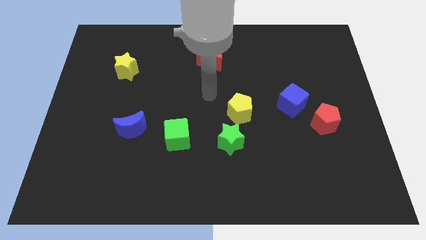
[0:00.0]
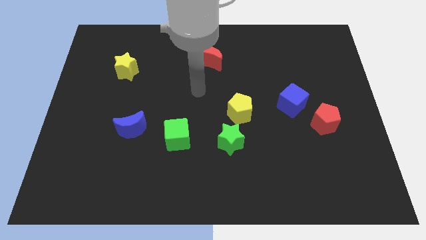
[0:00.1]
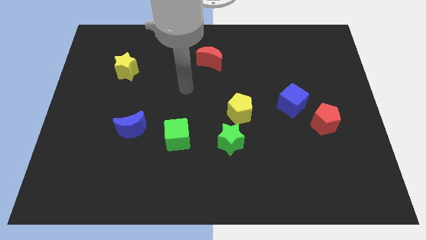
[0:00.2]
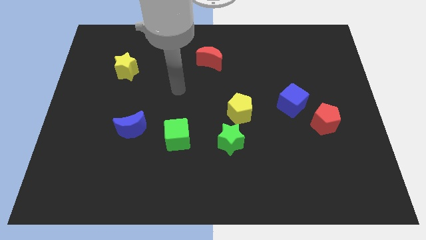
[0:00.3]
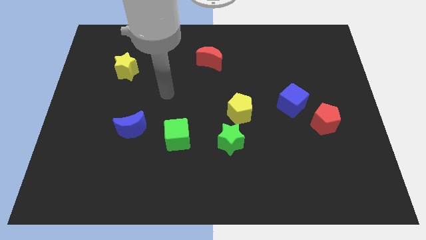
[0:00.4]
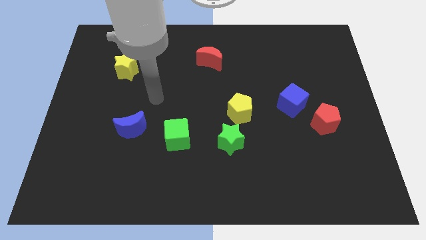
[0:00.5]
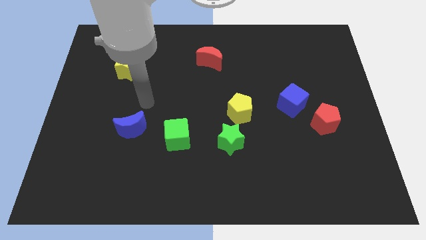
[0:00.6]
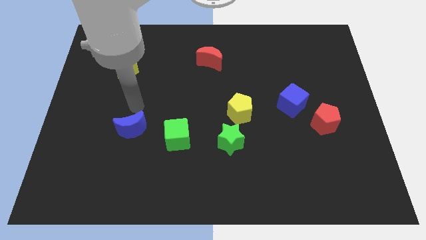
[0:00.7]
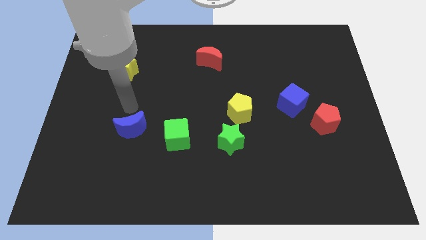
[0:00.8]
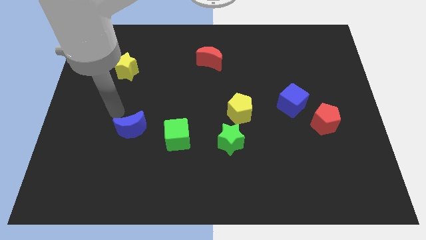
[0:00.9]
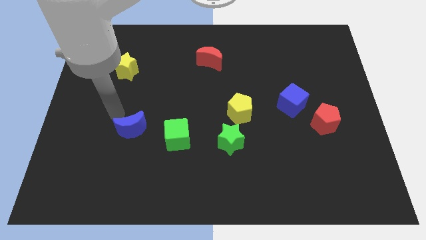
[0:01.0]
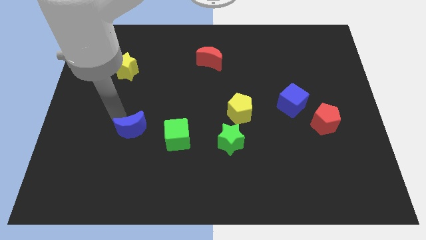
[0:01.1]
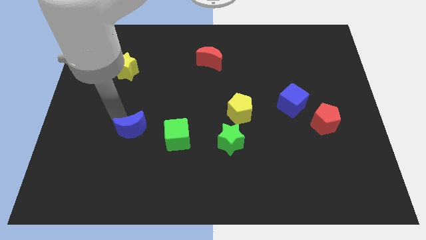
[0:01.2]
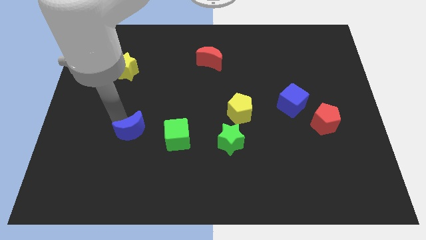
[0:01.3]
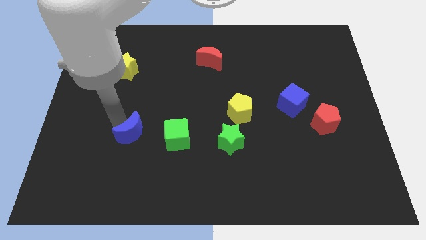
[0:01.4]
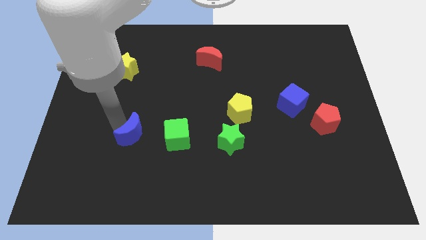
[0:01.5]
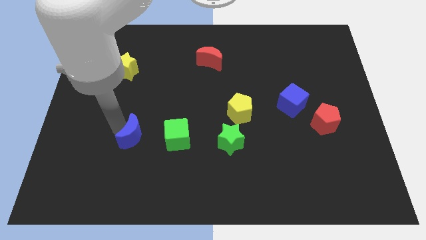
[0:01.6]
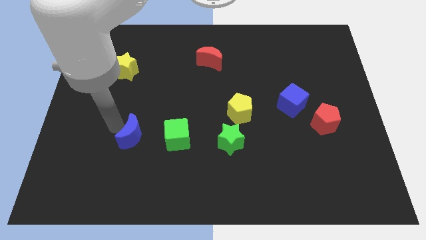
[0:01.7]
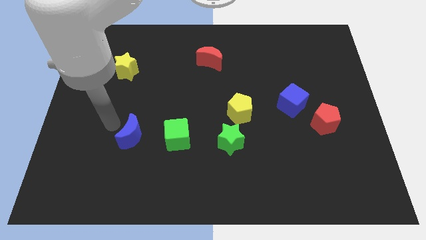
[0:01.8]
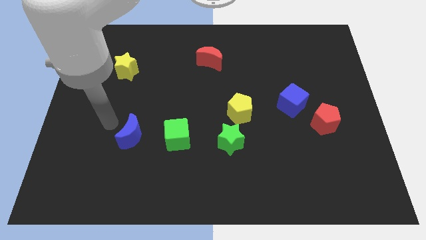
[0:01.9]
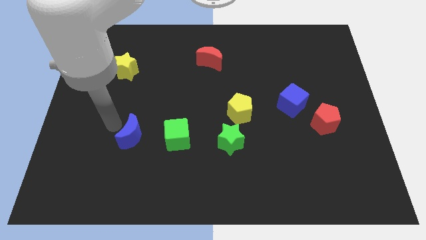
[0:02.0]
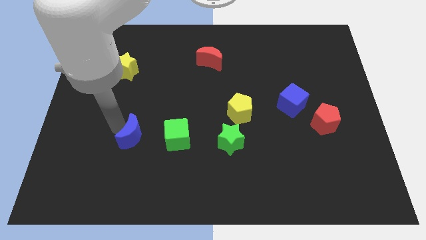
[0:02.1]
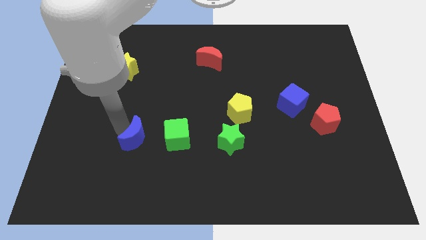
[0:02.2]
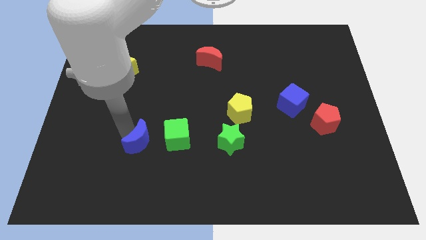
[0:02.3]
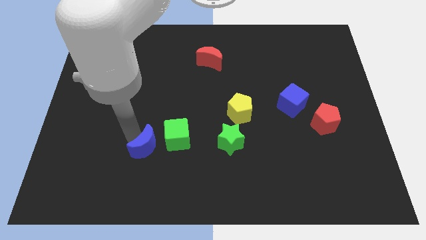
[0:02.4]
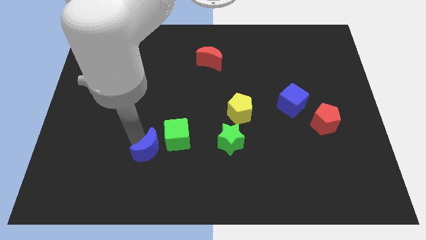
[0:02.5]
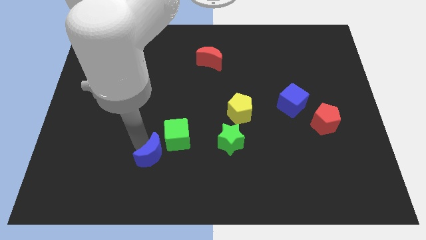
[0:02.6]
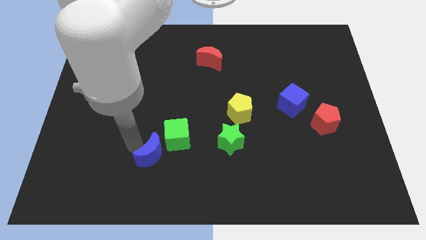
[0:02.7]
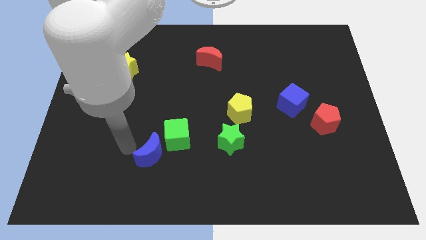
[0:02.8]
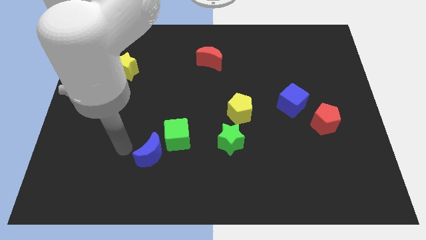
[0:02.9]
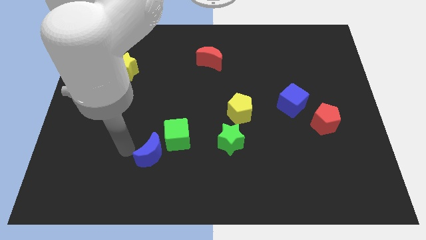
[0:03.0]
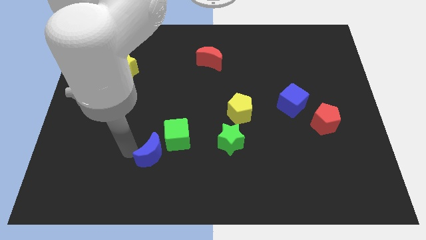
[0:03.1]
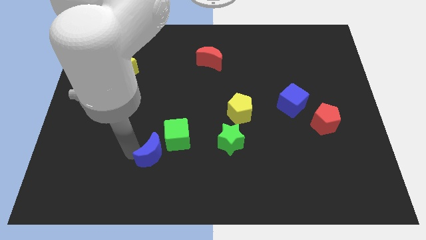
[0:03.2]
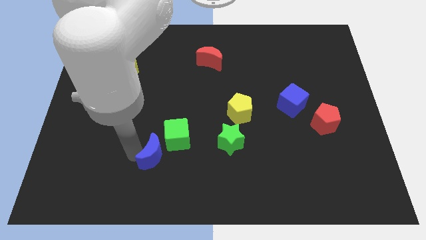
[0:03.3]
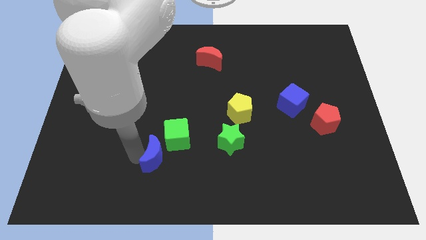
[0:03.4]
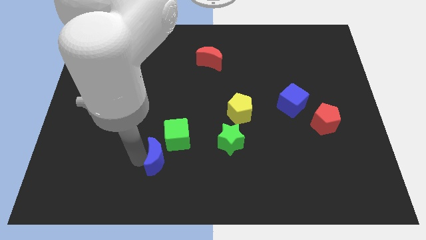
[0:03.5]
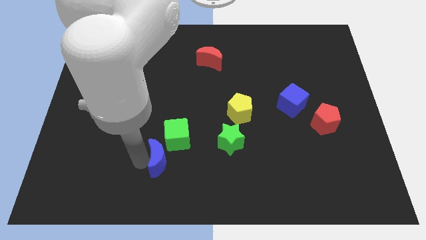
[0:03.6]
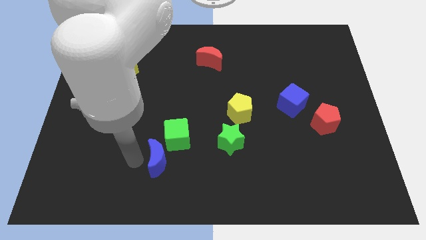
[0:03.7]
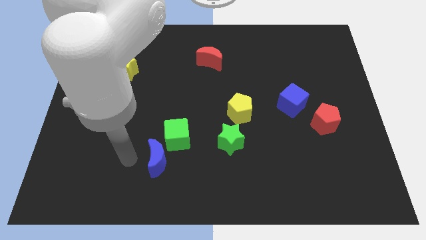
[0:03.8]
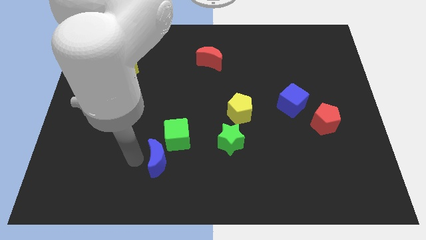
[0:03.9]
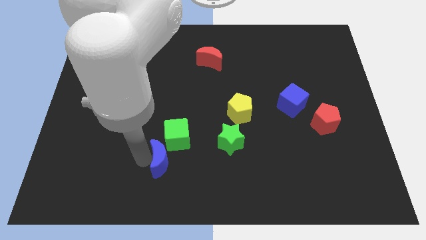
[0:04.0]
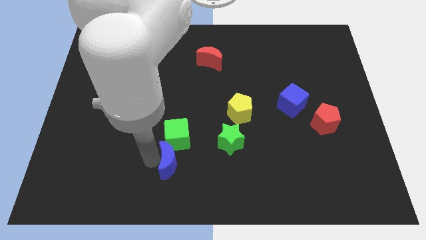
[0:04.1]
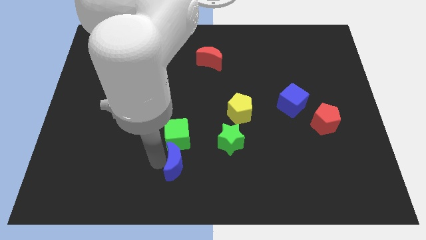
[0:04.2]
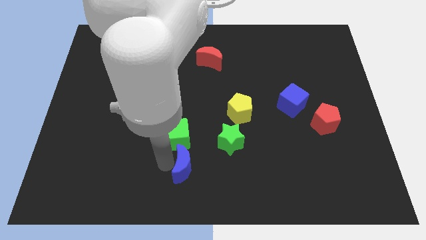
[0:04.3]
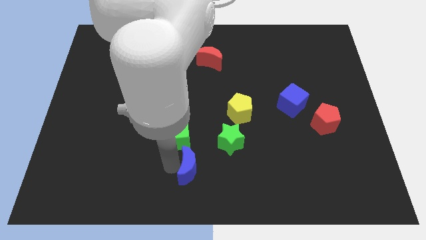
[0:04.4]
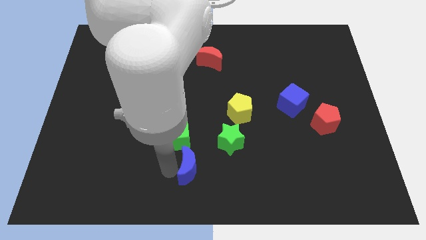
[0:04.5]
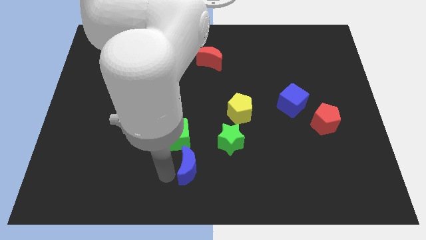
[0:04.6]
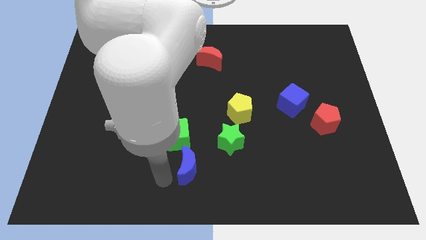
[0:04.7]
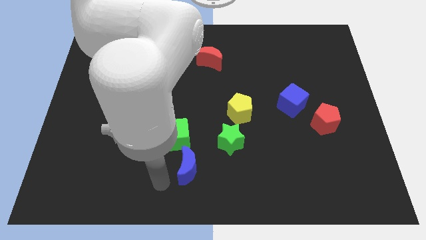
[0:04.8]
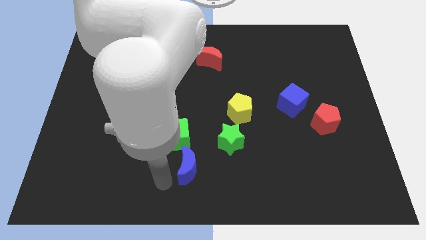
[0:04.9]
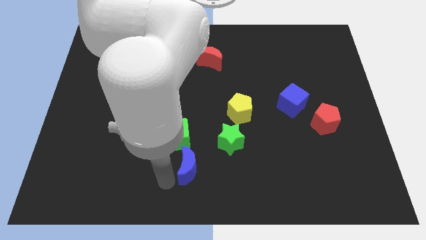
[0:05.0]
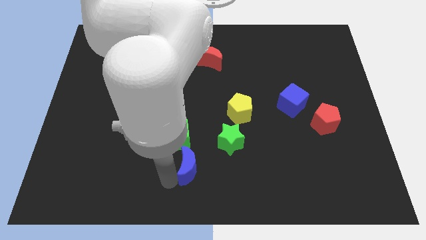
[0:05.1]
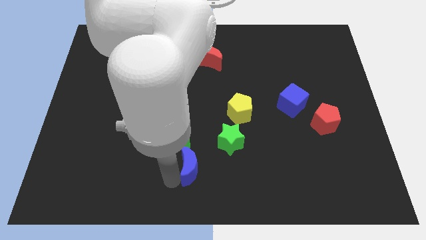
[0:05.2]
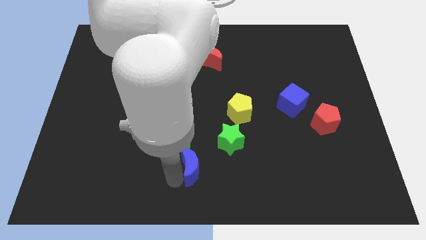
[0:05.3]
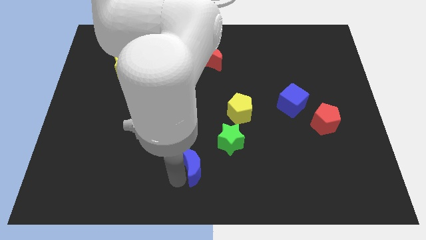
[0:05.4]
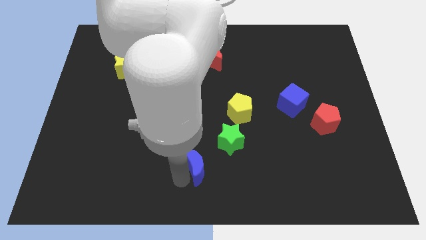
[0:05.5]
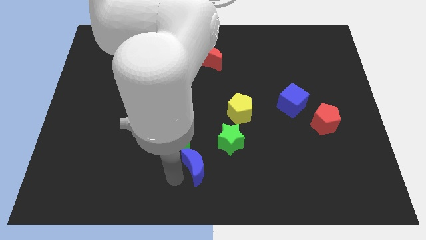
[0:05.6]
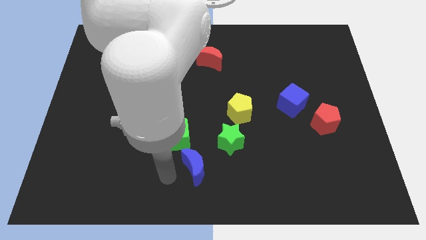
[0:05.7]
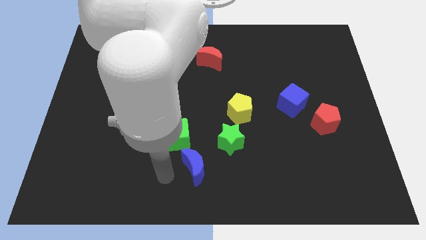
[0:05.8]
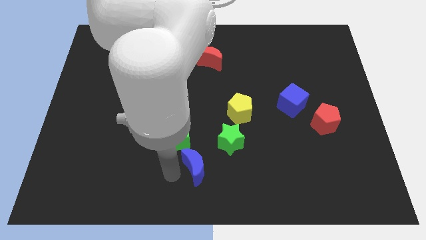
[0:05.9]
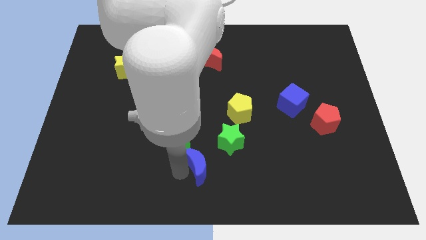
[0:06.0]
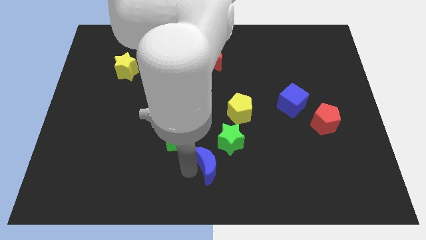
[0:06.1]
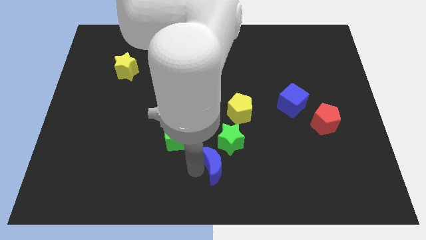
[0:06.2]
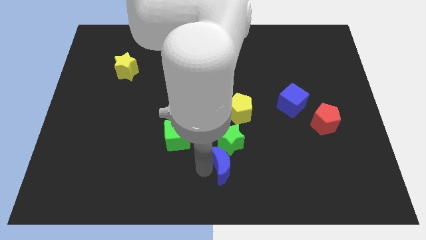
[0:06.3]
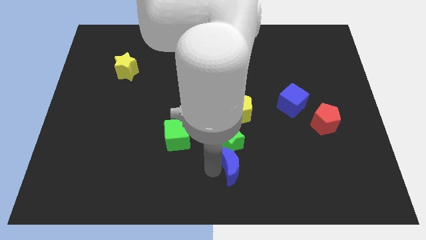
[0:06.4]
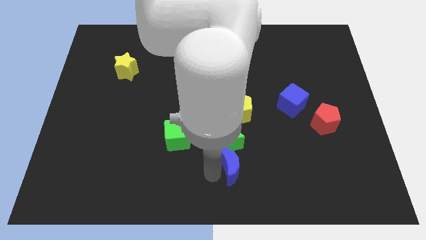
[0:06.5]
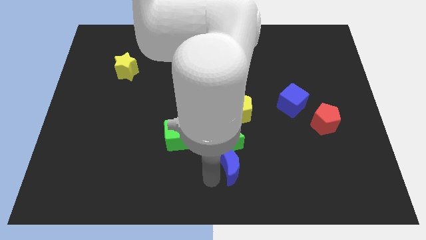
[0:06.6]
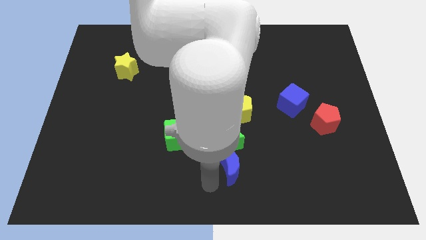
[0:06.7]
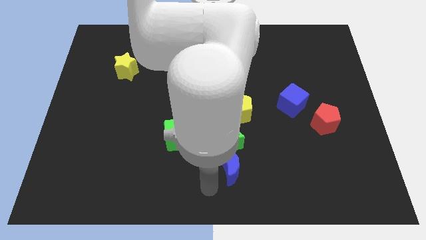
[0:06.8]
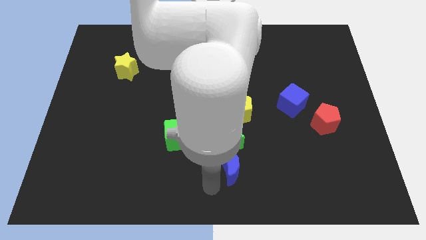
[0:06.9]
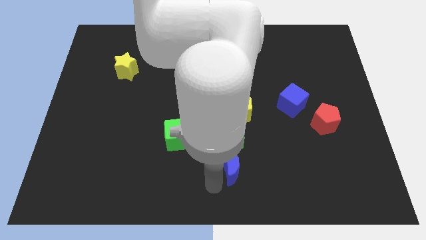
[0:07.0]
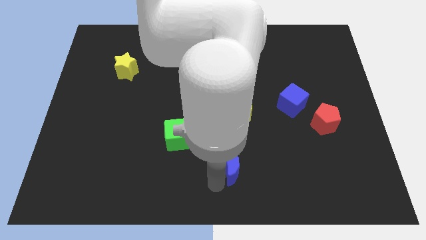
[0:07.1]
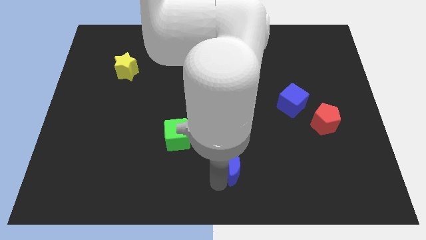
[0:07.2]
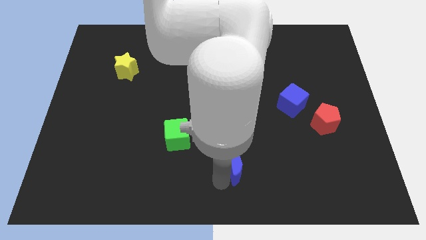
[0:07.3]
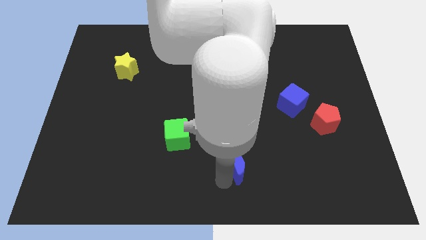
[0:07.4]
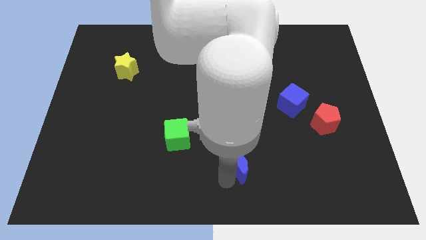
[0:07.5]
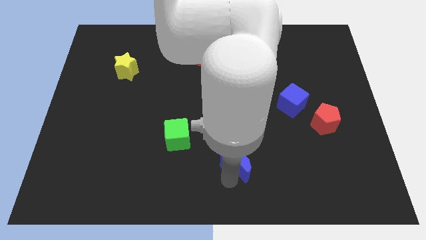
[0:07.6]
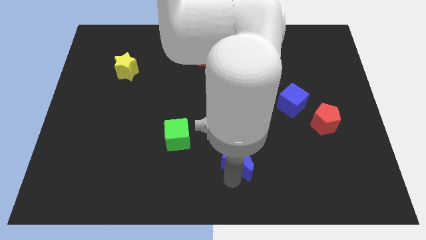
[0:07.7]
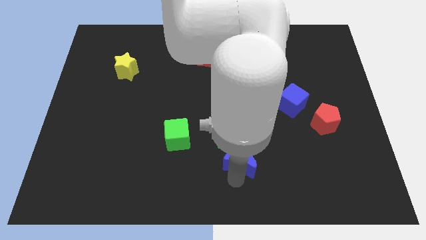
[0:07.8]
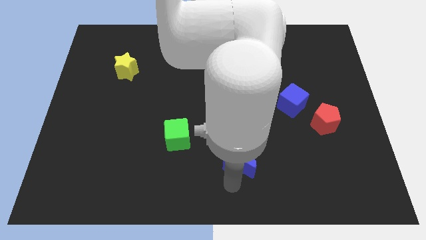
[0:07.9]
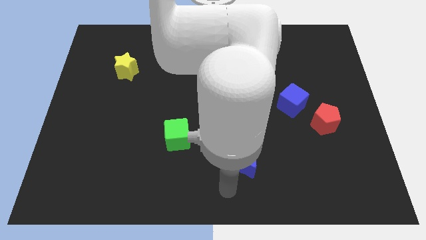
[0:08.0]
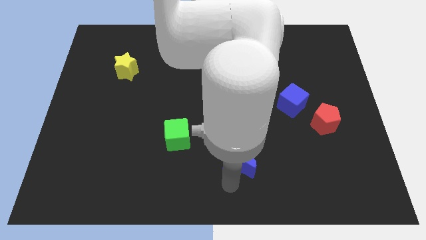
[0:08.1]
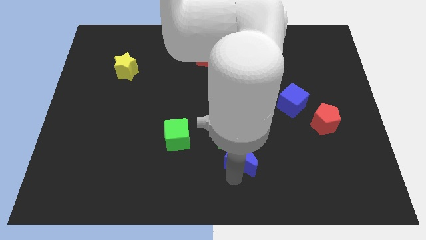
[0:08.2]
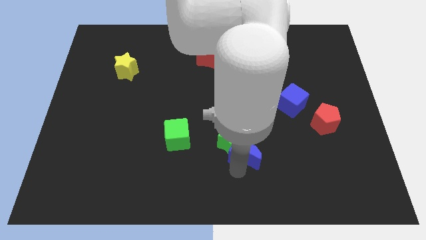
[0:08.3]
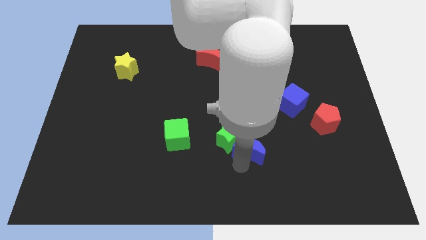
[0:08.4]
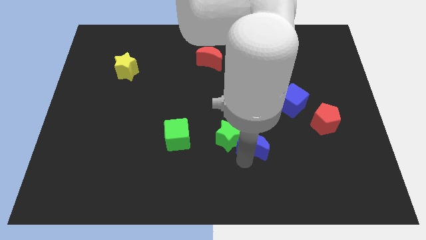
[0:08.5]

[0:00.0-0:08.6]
put the blue moon to the bottom right of the yellow pentagon
